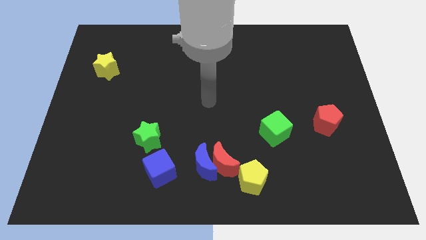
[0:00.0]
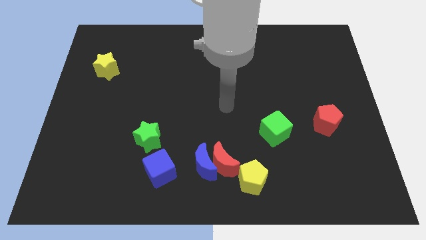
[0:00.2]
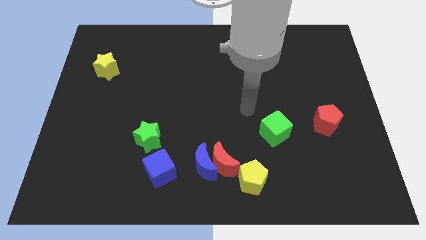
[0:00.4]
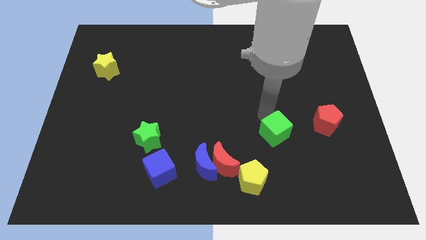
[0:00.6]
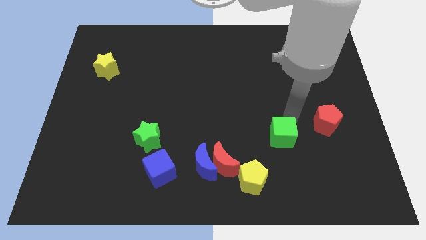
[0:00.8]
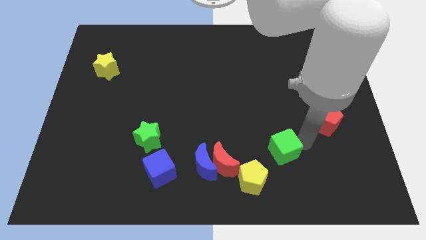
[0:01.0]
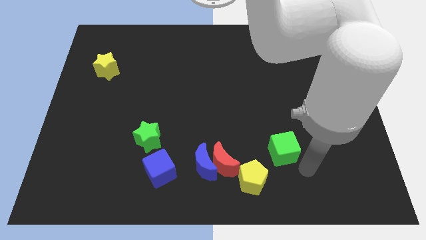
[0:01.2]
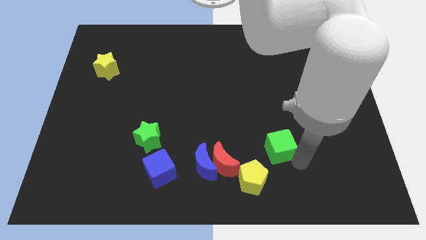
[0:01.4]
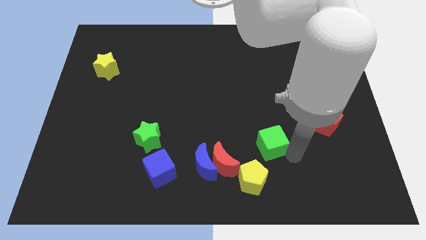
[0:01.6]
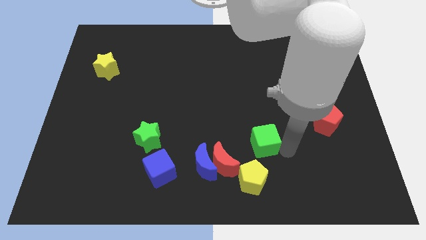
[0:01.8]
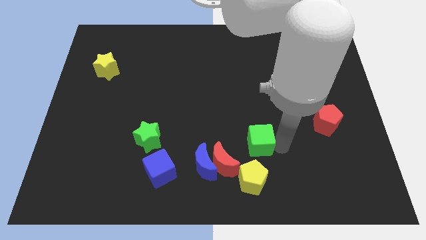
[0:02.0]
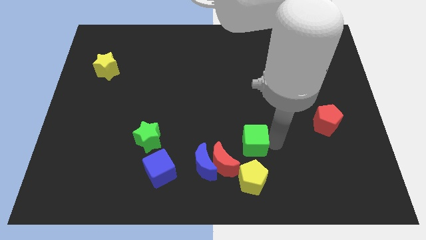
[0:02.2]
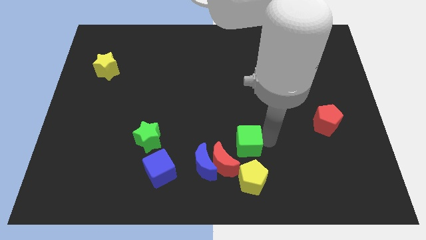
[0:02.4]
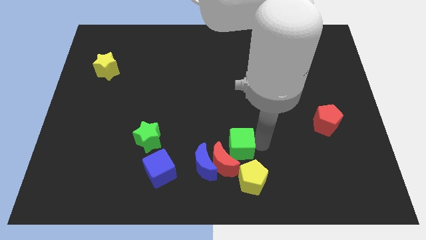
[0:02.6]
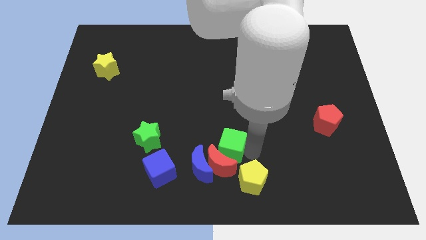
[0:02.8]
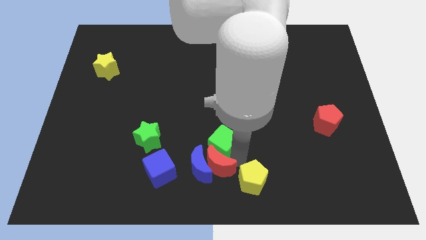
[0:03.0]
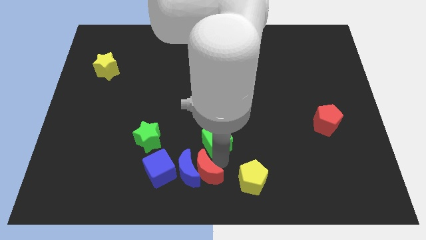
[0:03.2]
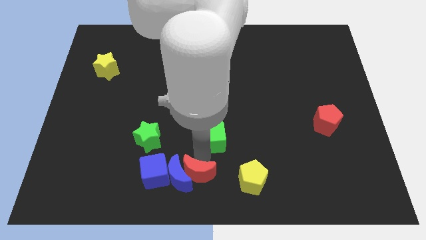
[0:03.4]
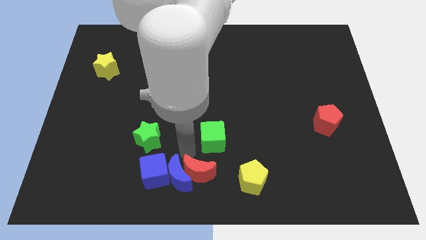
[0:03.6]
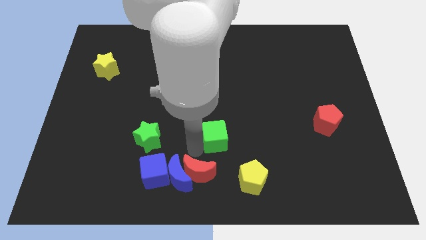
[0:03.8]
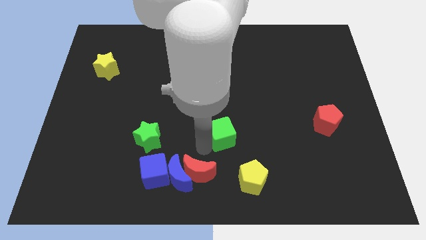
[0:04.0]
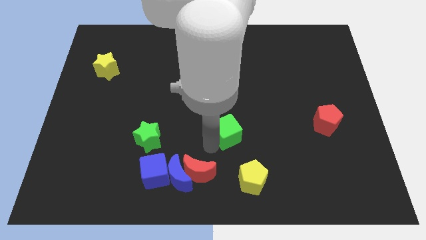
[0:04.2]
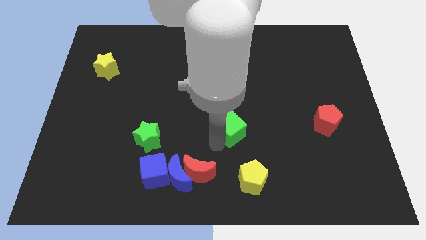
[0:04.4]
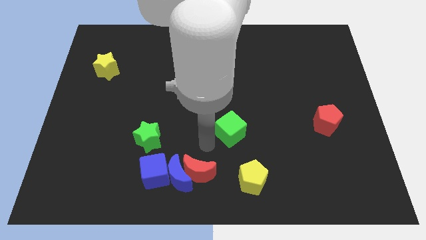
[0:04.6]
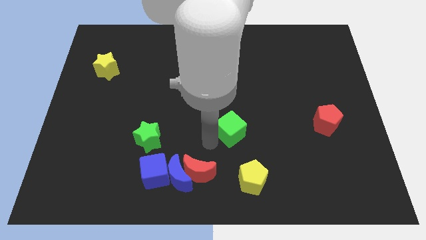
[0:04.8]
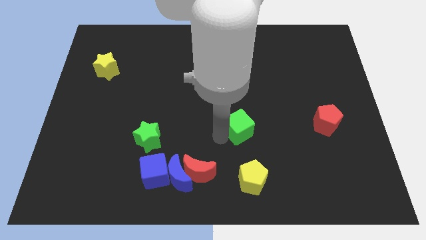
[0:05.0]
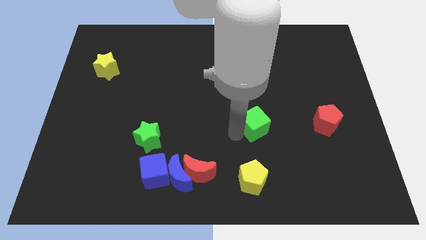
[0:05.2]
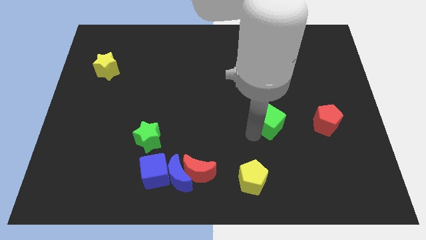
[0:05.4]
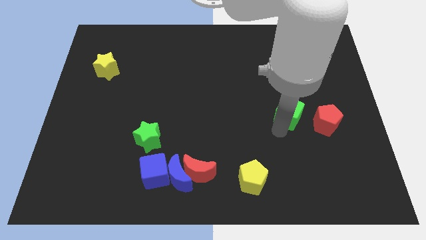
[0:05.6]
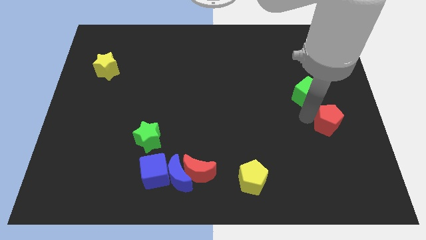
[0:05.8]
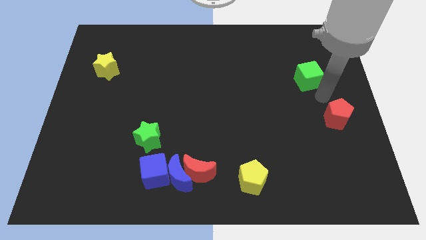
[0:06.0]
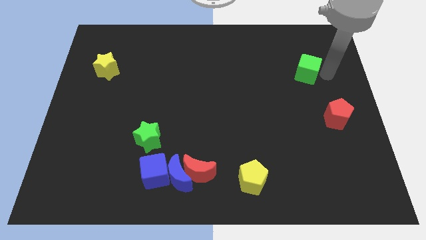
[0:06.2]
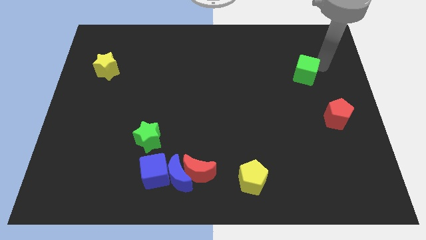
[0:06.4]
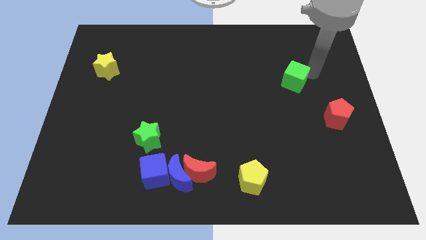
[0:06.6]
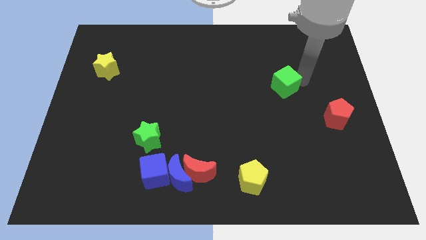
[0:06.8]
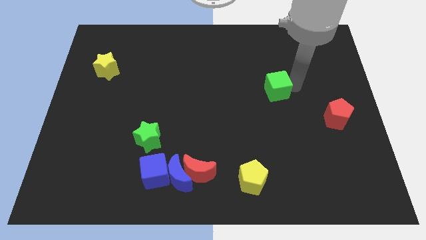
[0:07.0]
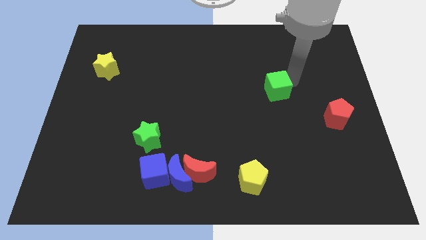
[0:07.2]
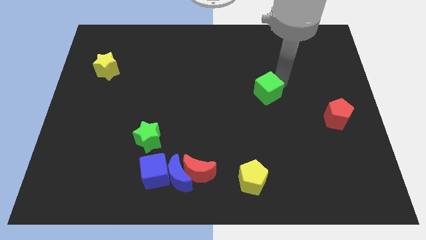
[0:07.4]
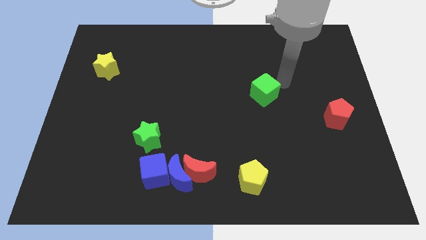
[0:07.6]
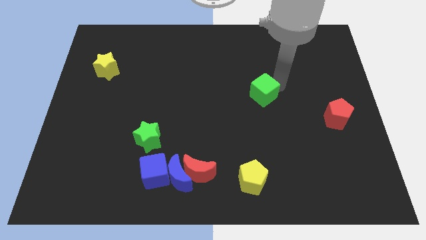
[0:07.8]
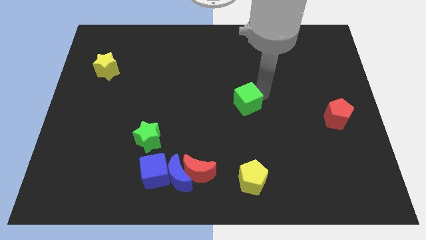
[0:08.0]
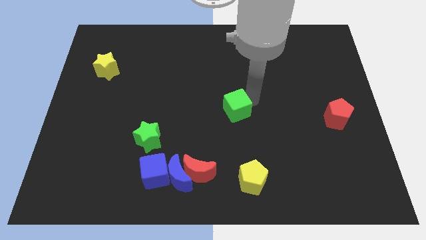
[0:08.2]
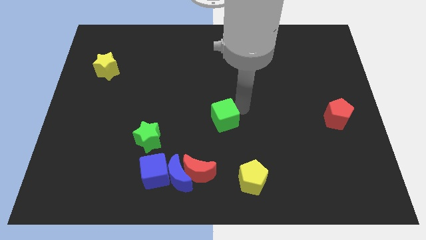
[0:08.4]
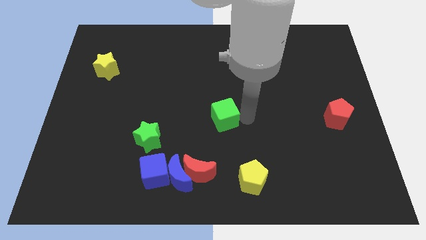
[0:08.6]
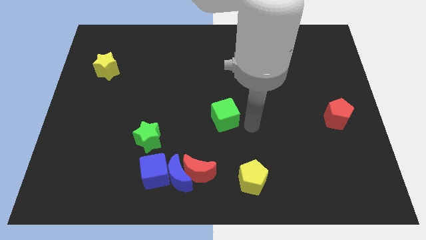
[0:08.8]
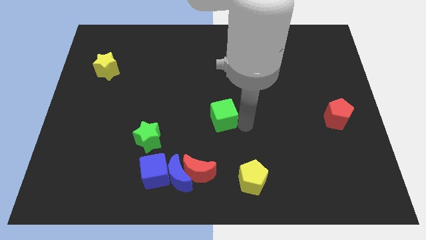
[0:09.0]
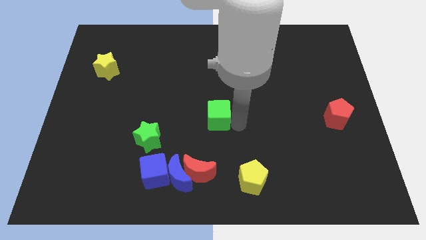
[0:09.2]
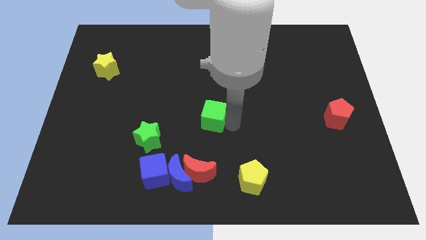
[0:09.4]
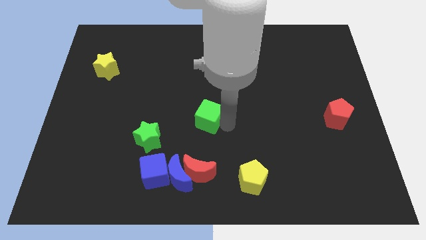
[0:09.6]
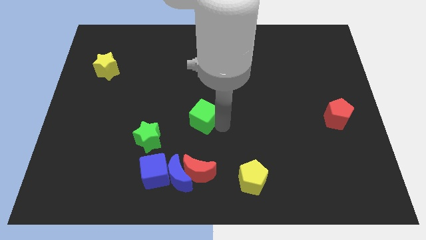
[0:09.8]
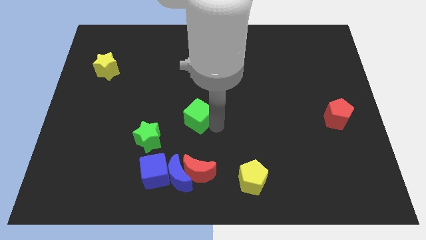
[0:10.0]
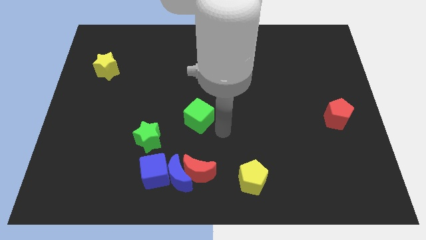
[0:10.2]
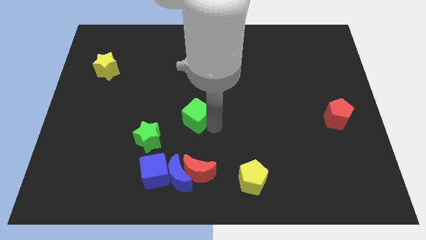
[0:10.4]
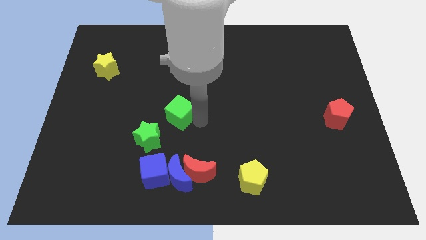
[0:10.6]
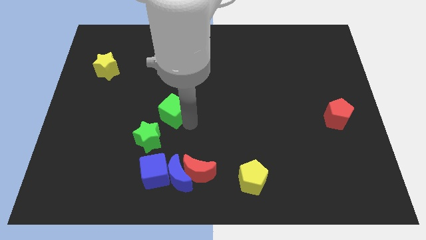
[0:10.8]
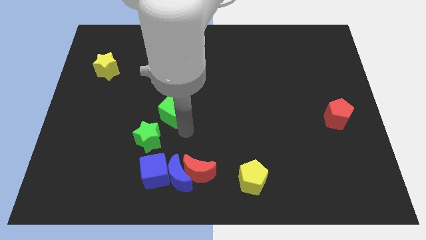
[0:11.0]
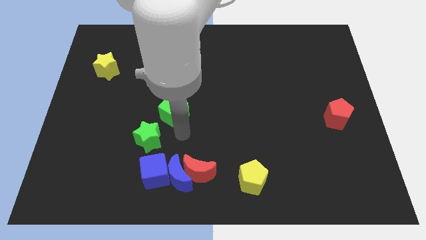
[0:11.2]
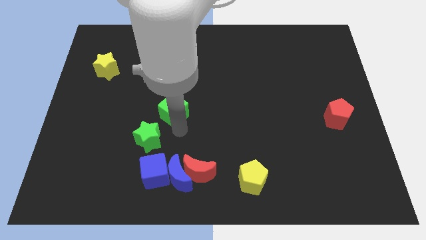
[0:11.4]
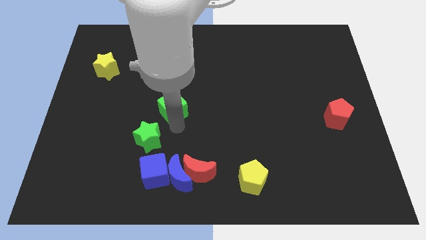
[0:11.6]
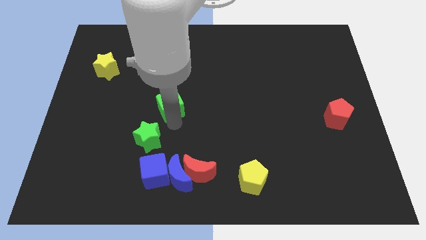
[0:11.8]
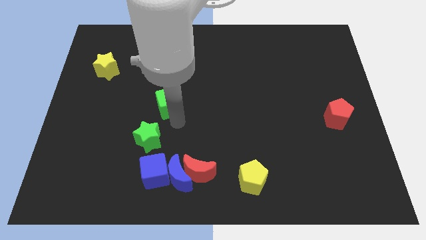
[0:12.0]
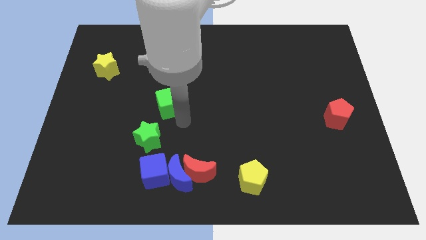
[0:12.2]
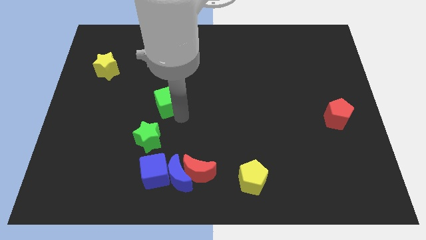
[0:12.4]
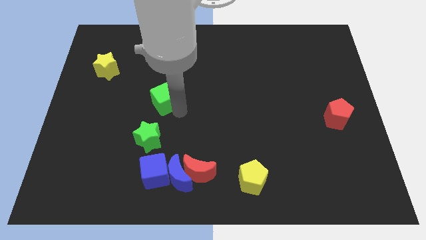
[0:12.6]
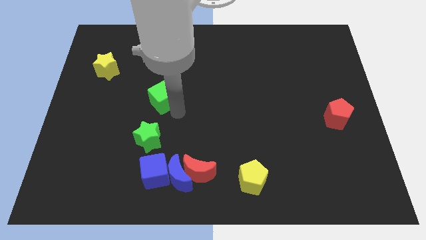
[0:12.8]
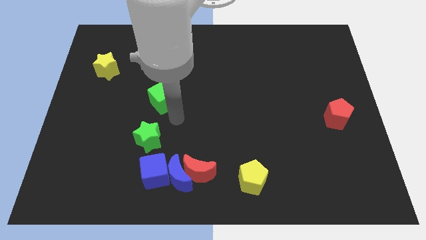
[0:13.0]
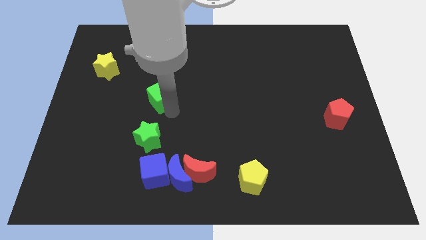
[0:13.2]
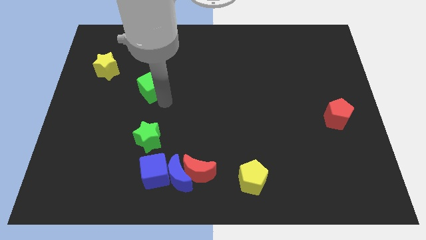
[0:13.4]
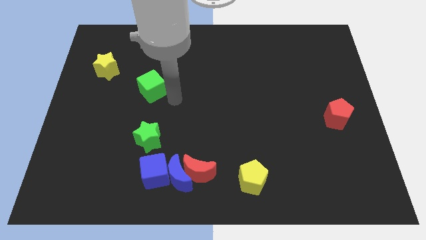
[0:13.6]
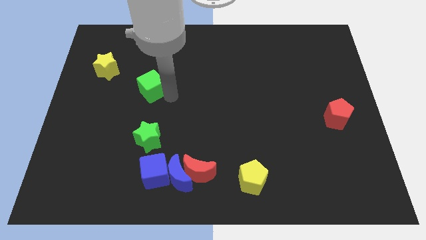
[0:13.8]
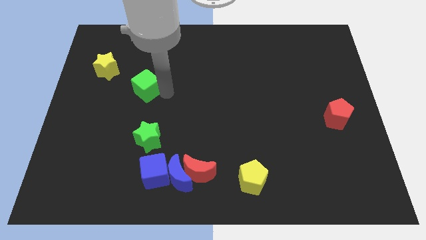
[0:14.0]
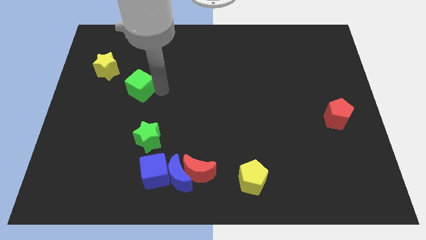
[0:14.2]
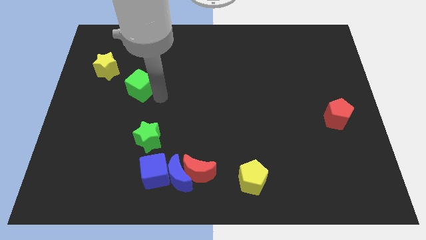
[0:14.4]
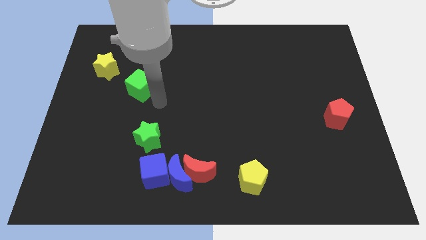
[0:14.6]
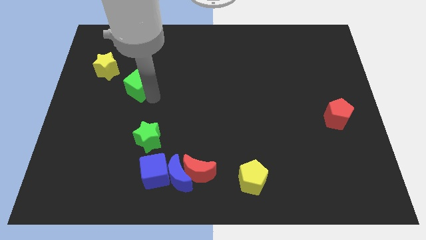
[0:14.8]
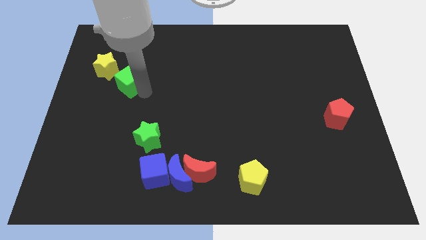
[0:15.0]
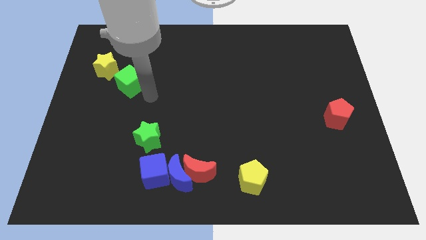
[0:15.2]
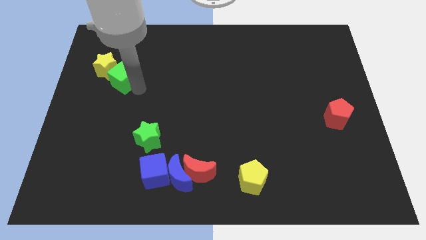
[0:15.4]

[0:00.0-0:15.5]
move the green cube towards the yellow star

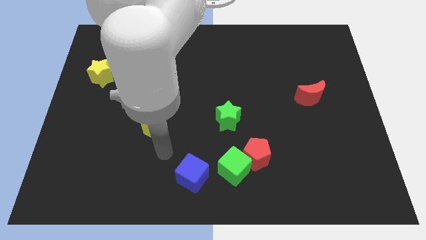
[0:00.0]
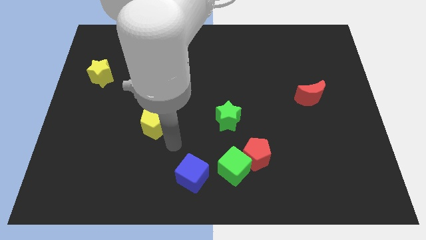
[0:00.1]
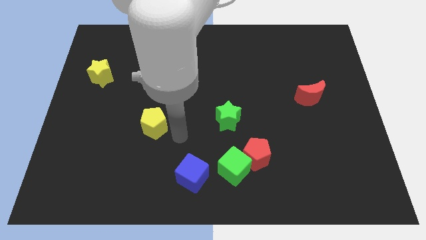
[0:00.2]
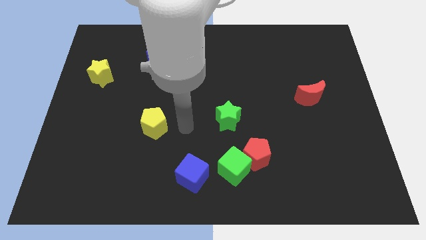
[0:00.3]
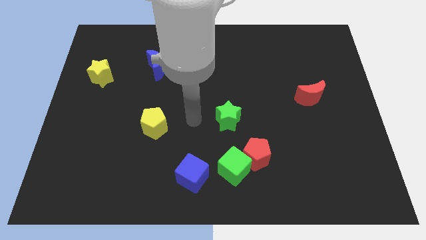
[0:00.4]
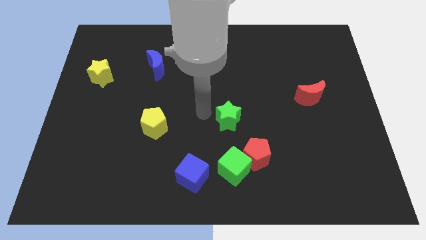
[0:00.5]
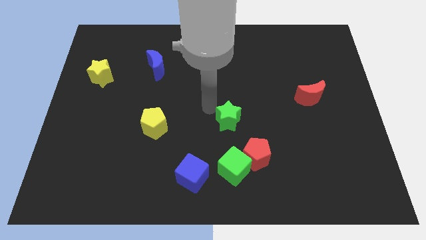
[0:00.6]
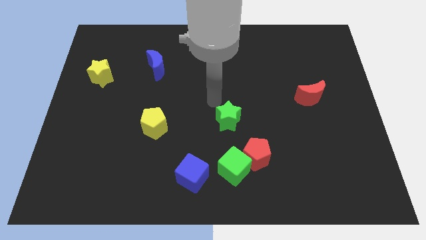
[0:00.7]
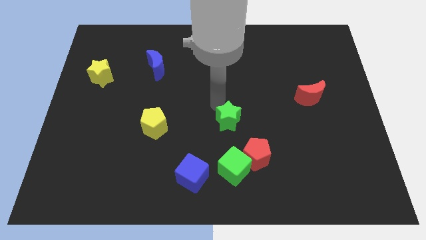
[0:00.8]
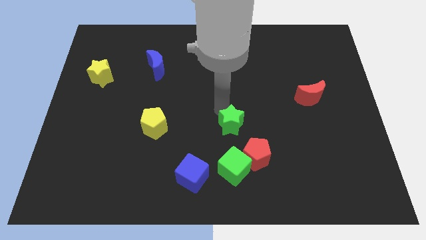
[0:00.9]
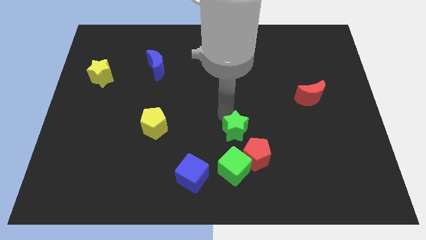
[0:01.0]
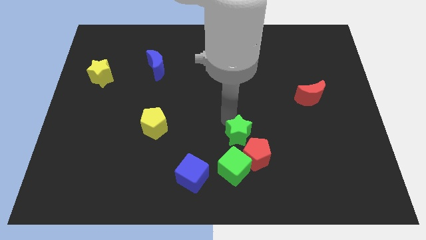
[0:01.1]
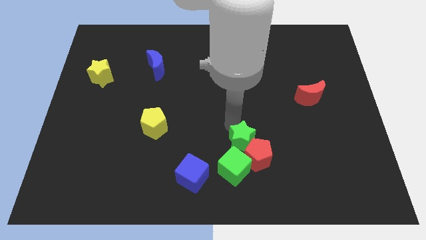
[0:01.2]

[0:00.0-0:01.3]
move the green star close to the red pentagon
